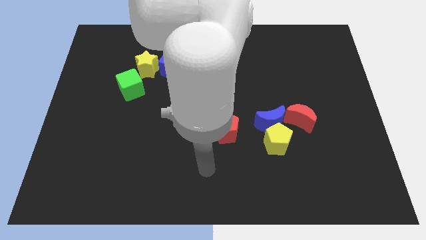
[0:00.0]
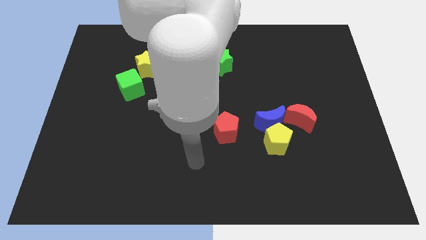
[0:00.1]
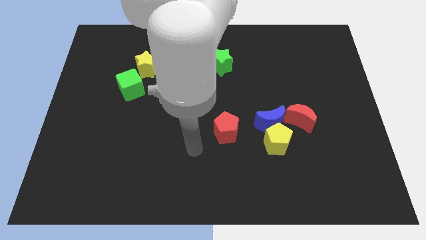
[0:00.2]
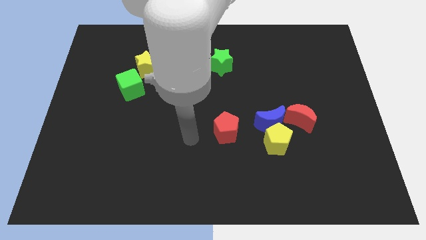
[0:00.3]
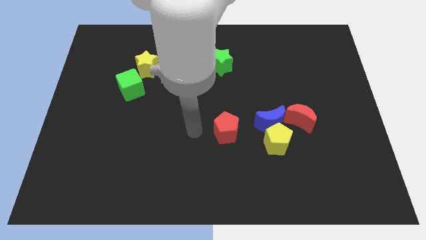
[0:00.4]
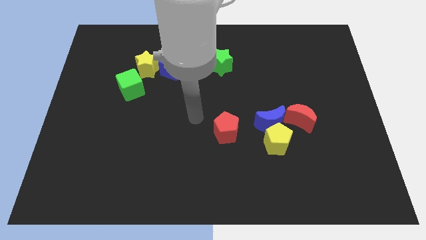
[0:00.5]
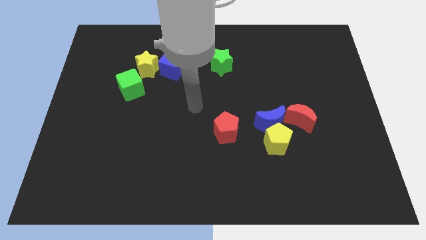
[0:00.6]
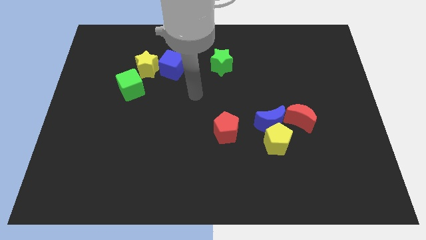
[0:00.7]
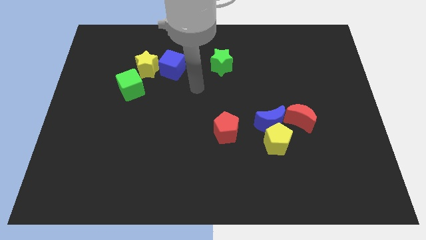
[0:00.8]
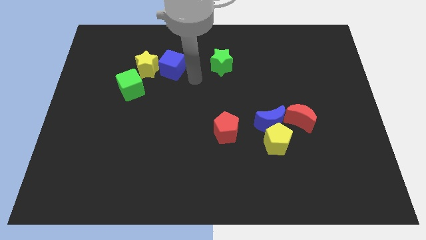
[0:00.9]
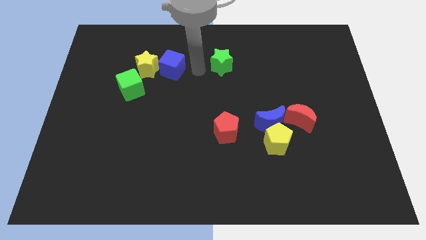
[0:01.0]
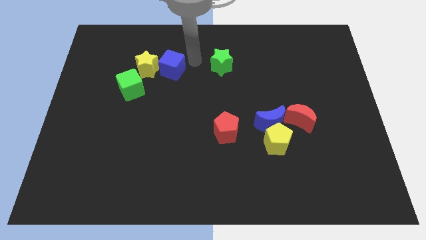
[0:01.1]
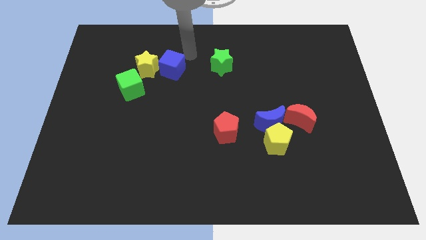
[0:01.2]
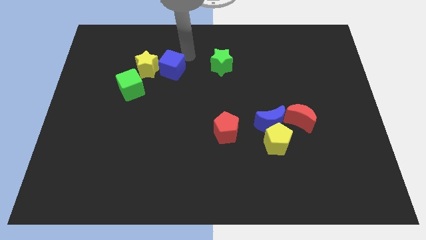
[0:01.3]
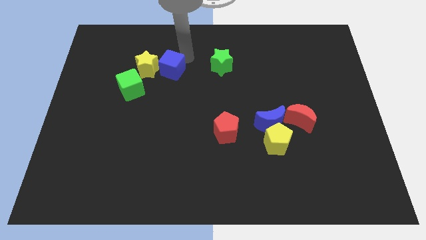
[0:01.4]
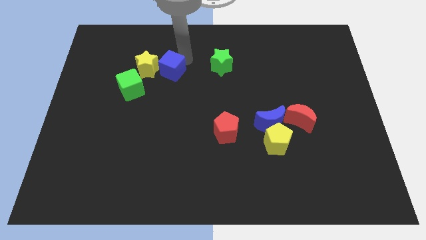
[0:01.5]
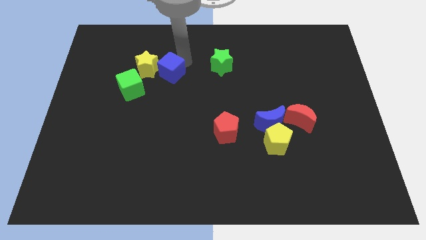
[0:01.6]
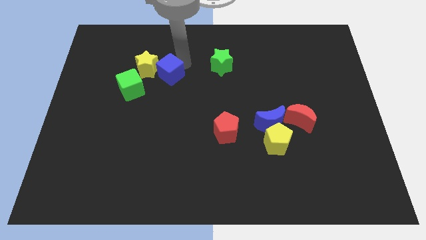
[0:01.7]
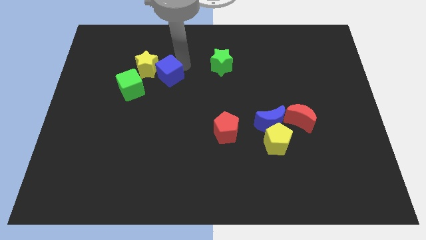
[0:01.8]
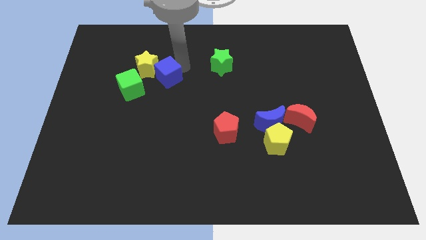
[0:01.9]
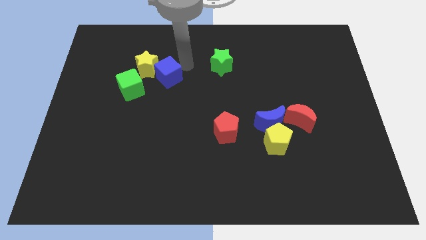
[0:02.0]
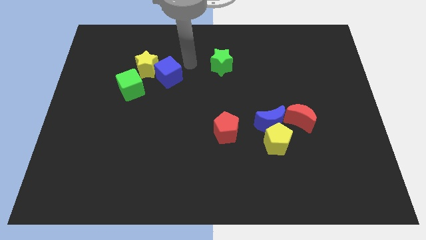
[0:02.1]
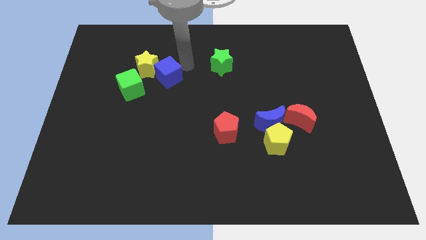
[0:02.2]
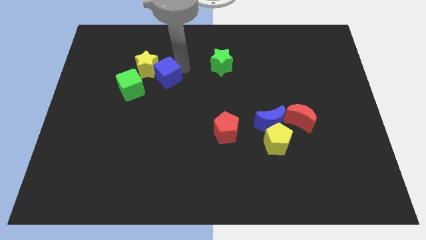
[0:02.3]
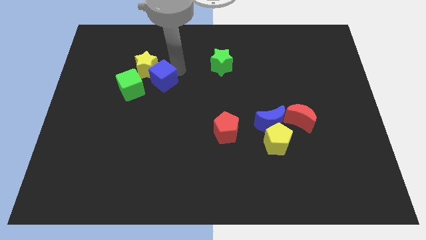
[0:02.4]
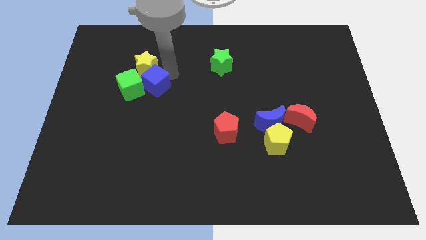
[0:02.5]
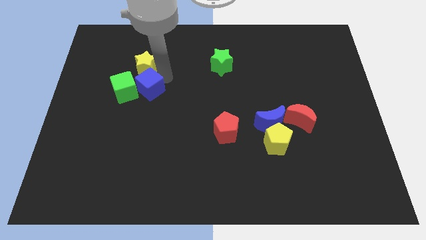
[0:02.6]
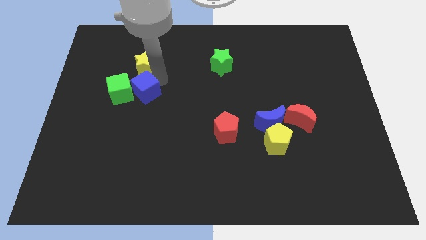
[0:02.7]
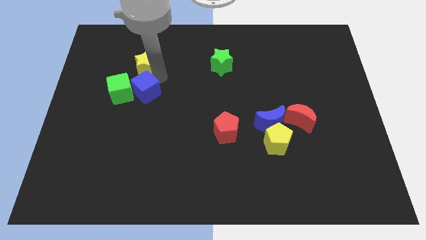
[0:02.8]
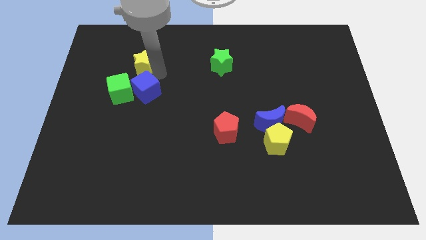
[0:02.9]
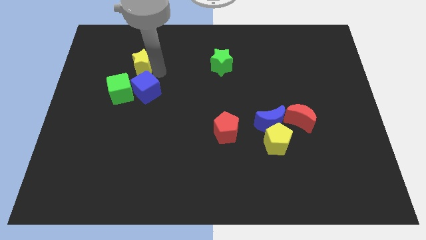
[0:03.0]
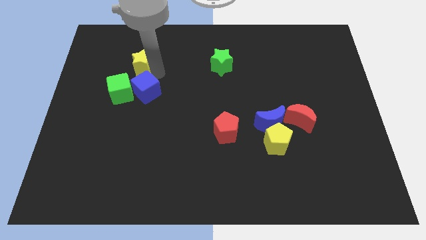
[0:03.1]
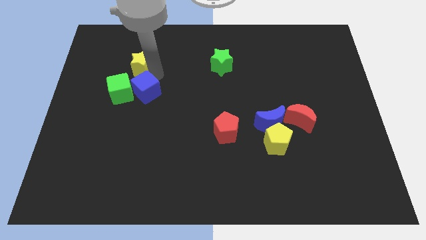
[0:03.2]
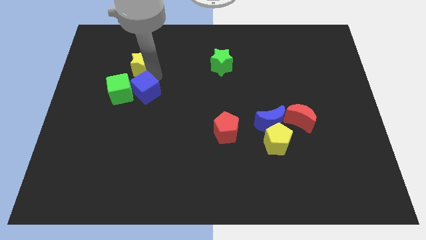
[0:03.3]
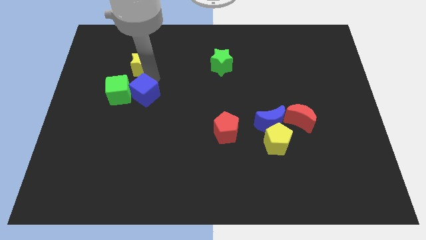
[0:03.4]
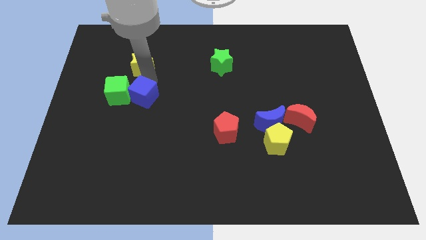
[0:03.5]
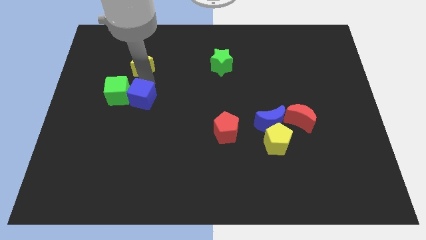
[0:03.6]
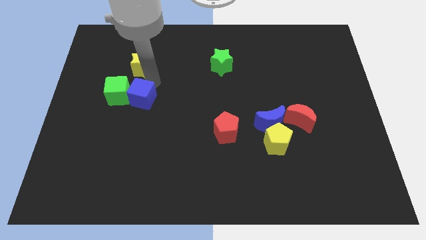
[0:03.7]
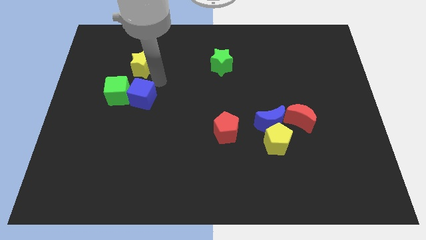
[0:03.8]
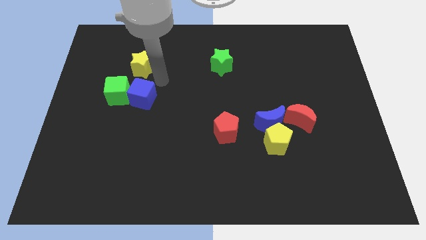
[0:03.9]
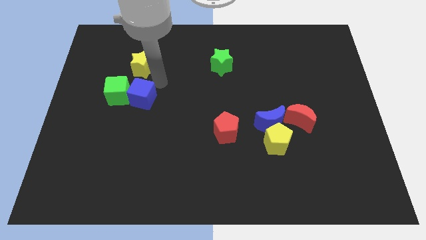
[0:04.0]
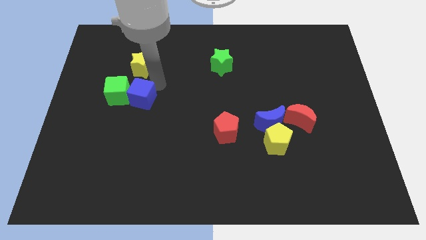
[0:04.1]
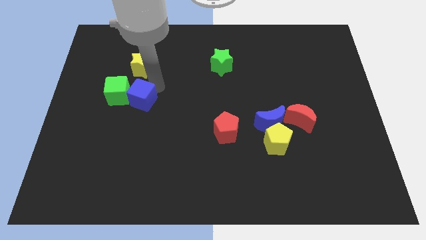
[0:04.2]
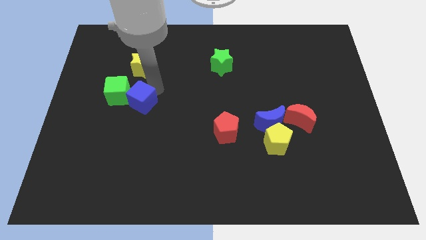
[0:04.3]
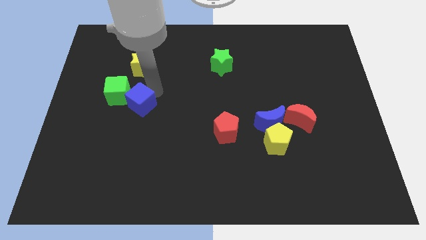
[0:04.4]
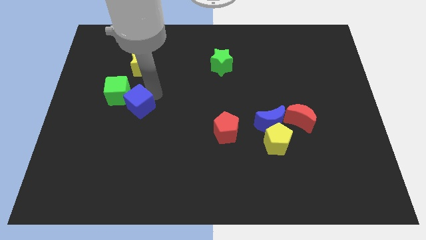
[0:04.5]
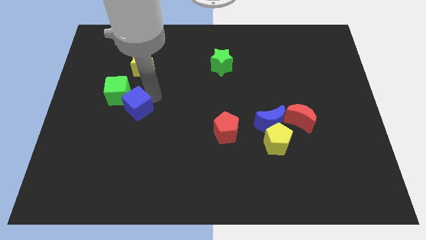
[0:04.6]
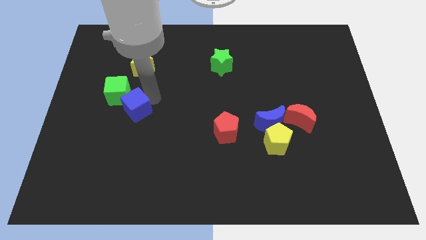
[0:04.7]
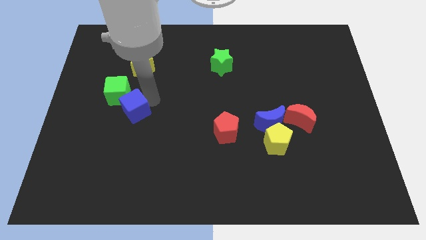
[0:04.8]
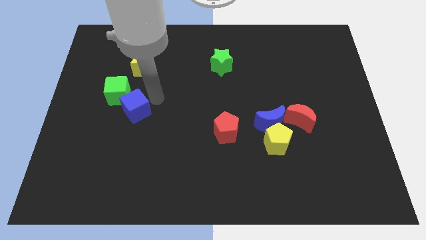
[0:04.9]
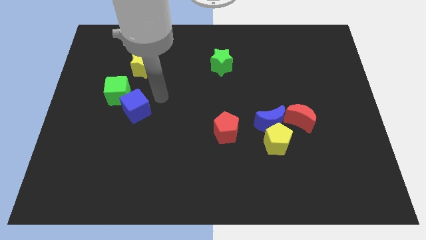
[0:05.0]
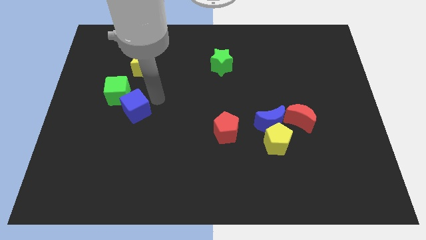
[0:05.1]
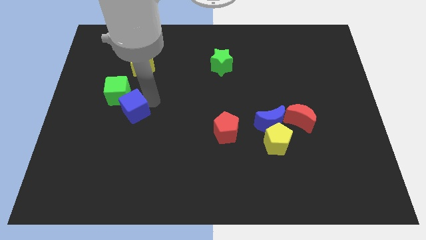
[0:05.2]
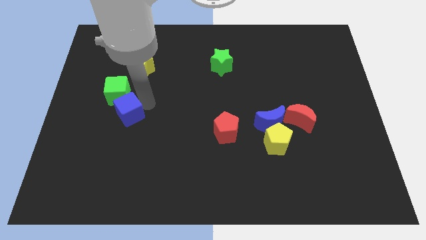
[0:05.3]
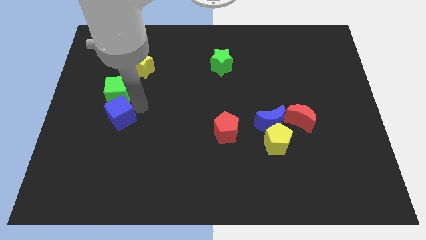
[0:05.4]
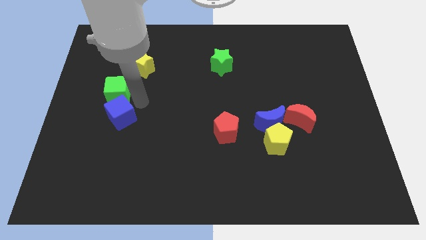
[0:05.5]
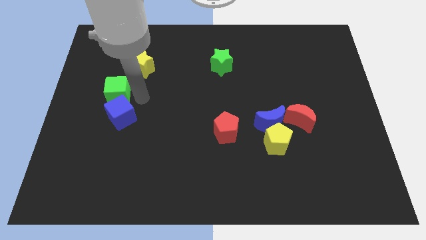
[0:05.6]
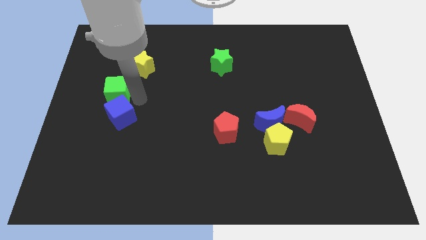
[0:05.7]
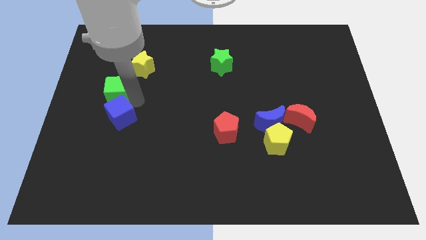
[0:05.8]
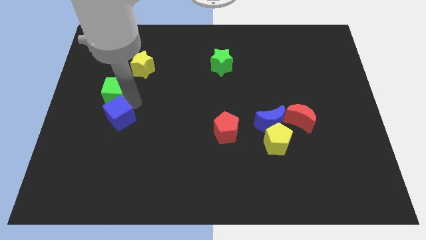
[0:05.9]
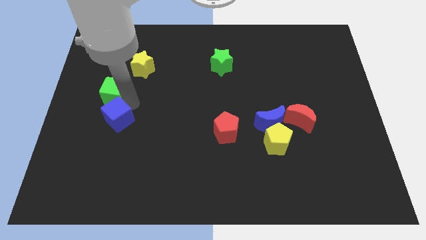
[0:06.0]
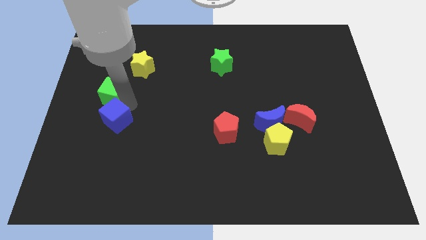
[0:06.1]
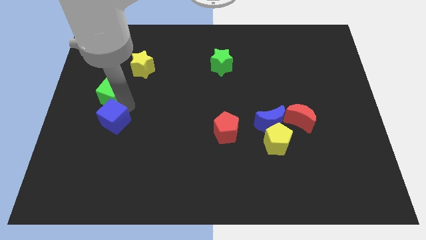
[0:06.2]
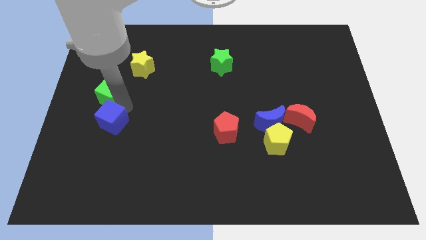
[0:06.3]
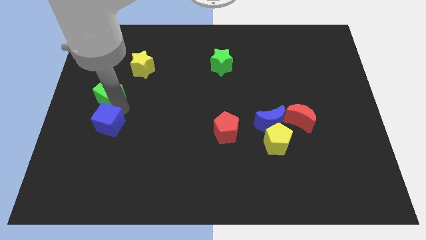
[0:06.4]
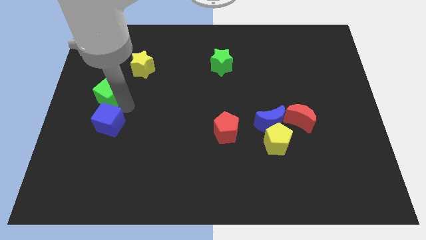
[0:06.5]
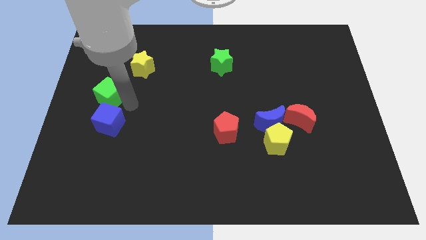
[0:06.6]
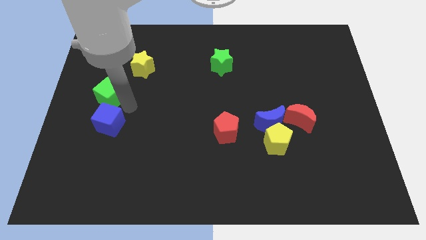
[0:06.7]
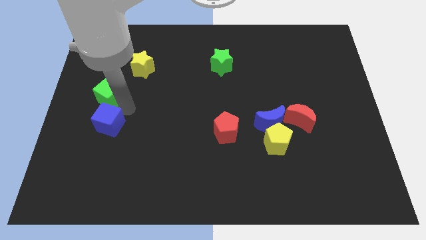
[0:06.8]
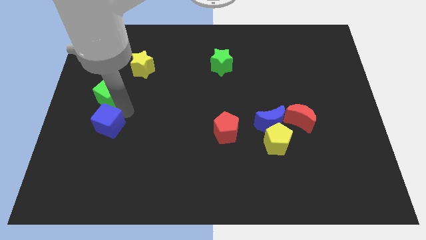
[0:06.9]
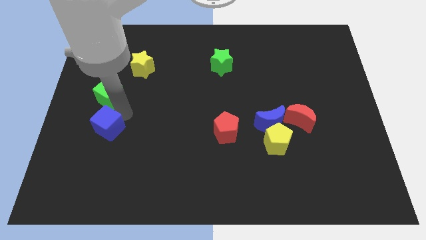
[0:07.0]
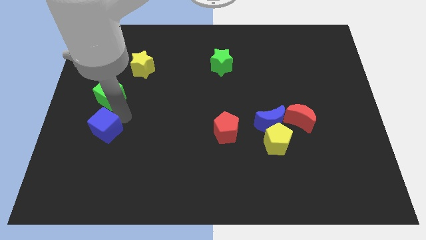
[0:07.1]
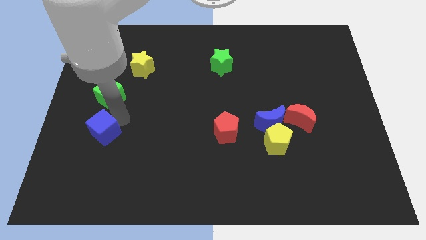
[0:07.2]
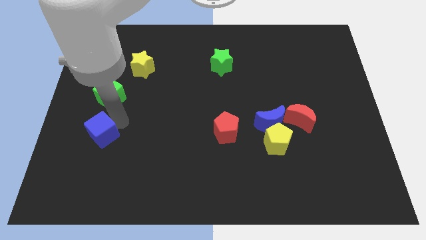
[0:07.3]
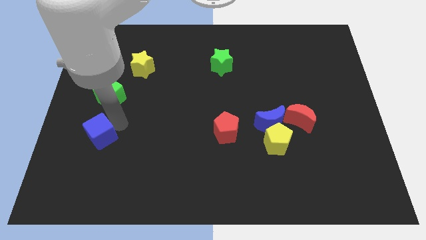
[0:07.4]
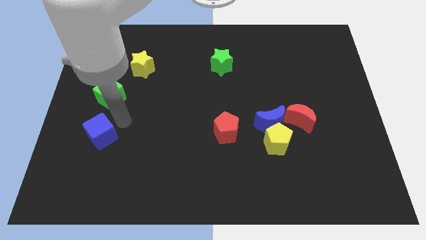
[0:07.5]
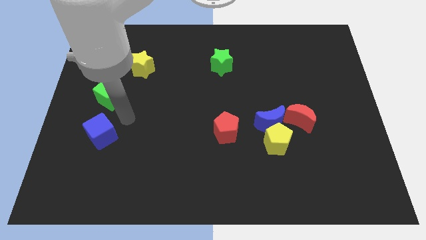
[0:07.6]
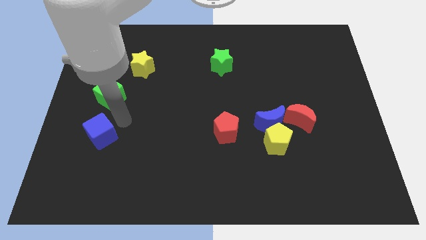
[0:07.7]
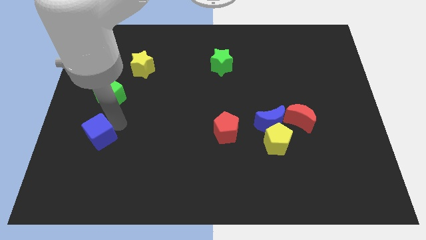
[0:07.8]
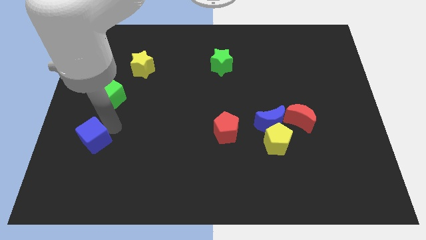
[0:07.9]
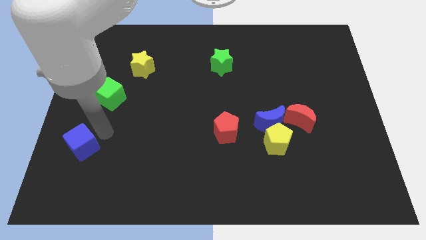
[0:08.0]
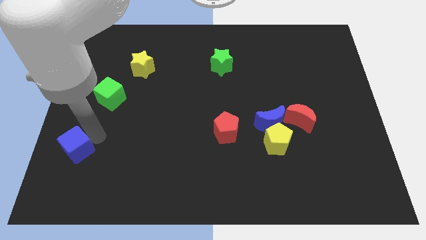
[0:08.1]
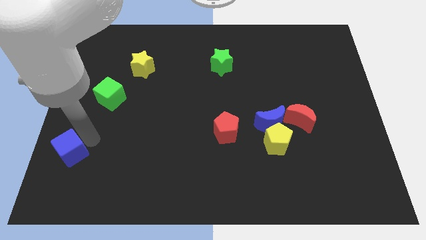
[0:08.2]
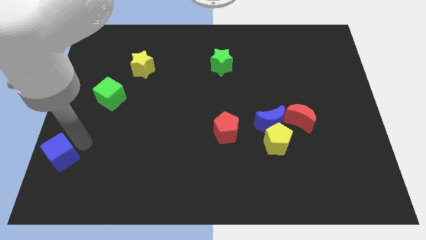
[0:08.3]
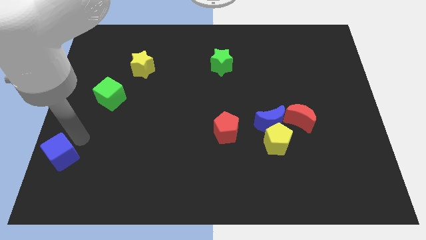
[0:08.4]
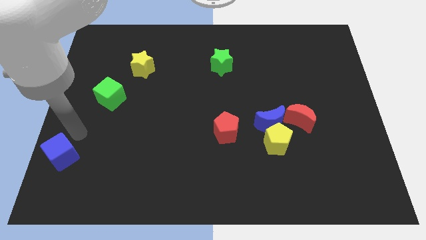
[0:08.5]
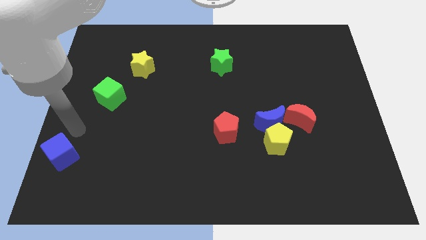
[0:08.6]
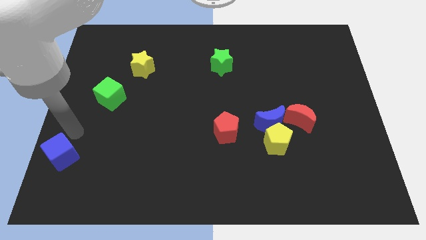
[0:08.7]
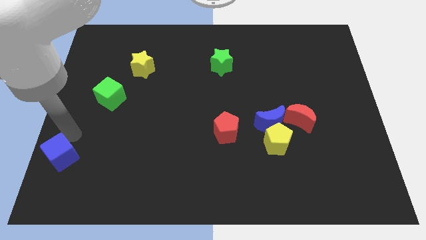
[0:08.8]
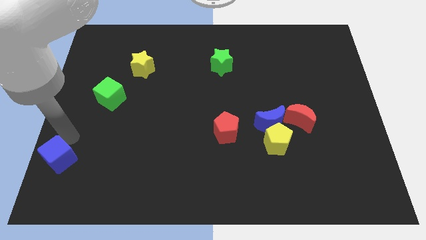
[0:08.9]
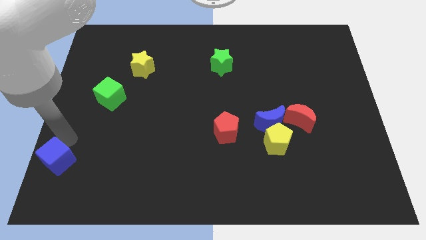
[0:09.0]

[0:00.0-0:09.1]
move the blue cube to the bottom left corner
